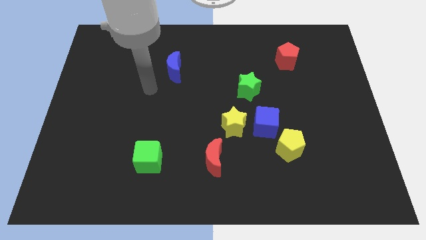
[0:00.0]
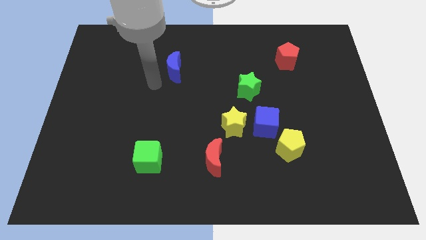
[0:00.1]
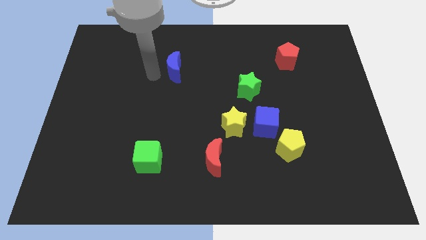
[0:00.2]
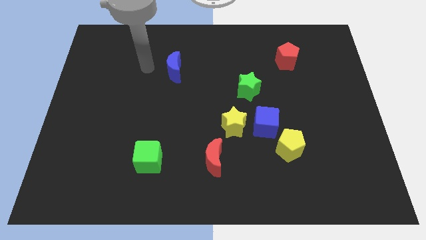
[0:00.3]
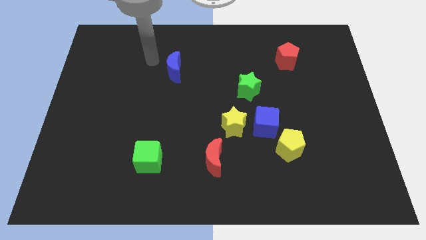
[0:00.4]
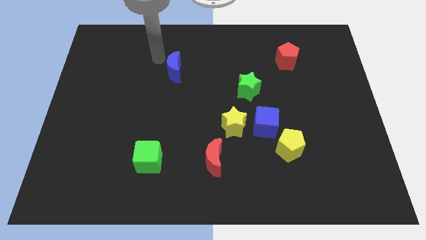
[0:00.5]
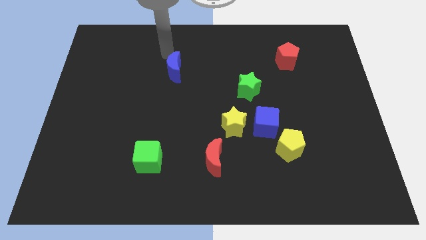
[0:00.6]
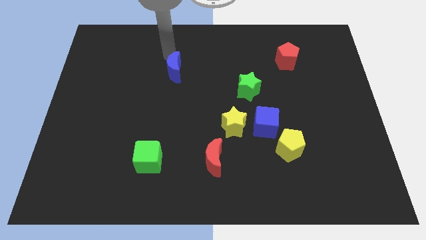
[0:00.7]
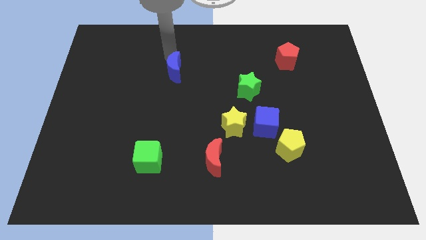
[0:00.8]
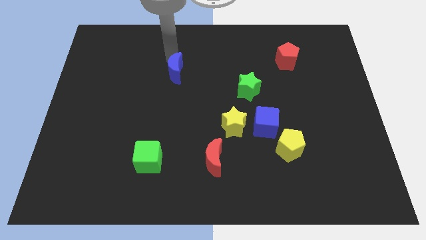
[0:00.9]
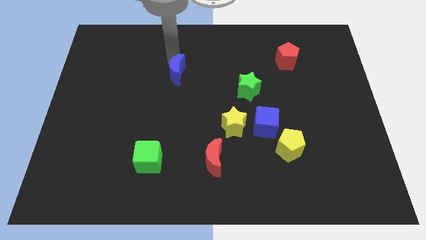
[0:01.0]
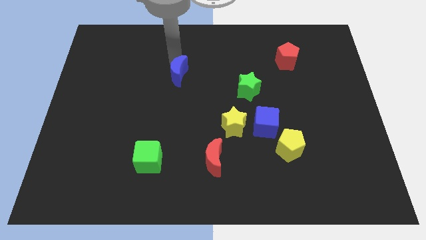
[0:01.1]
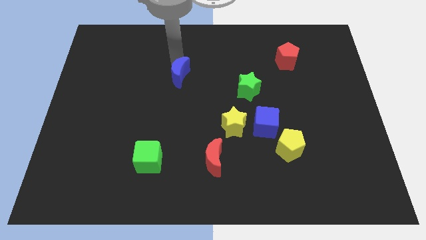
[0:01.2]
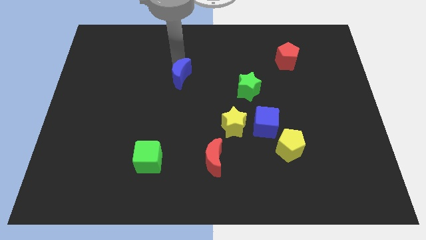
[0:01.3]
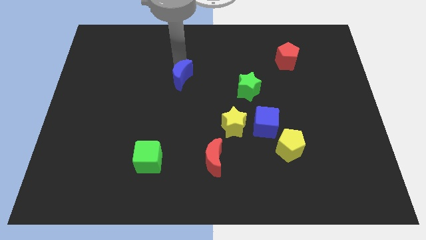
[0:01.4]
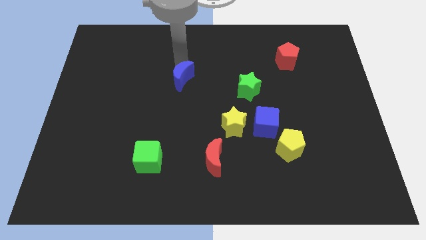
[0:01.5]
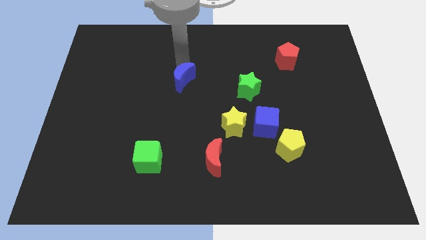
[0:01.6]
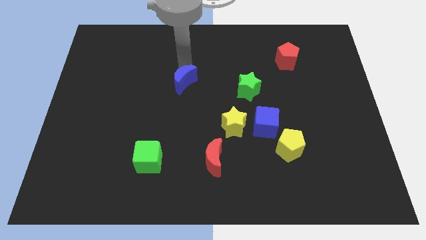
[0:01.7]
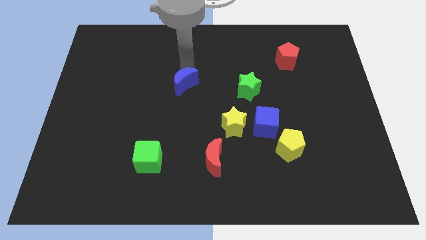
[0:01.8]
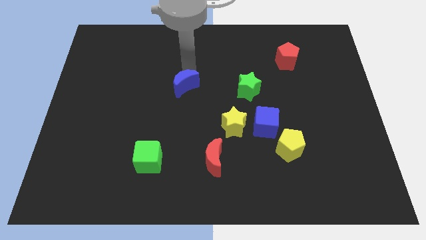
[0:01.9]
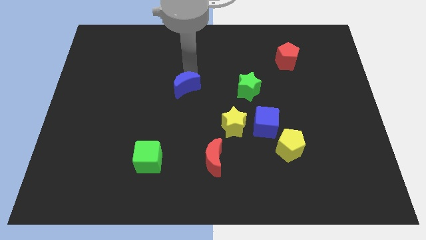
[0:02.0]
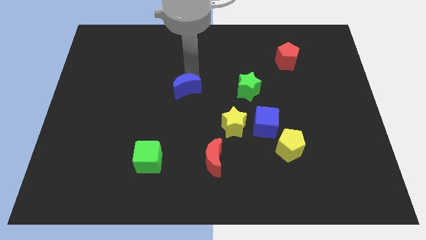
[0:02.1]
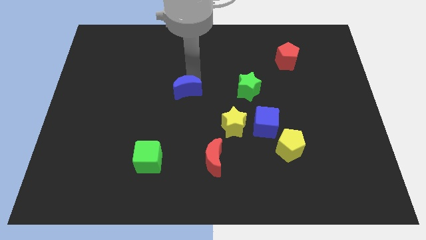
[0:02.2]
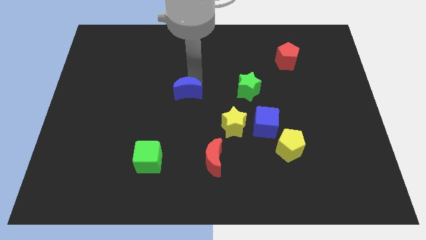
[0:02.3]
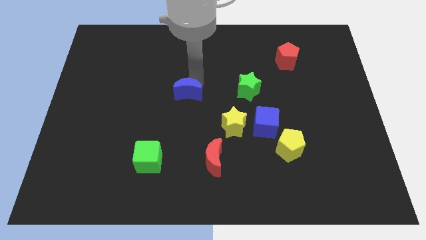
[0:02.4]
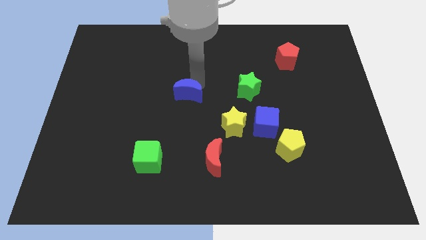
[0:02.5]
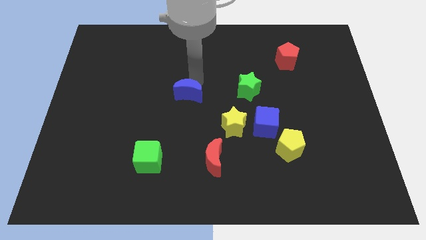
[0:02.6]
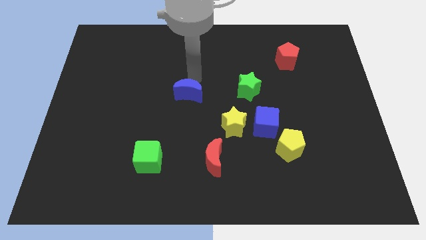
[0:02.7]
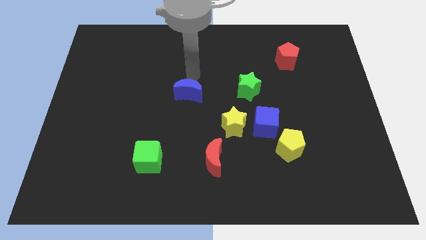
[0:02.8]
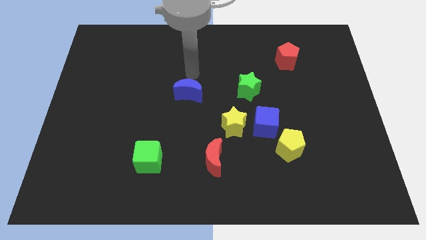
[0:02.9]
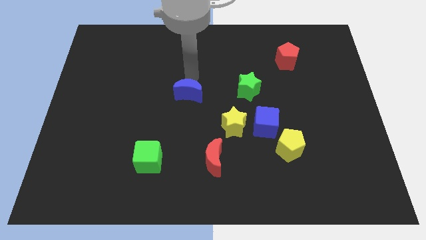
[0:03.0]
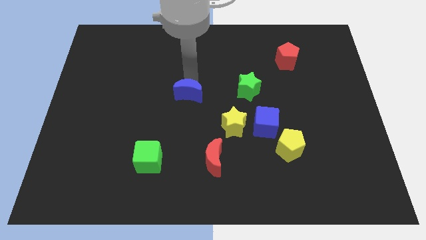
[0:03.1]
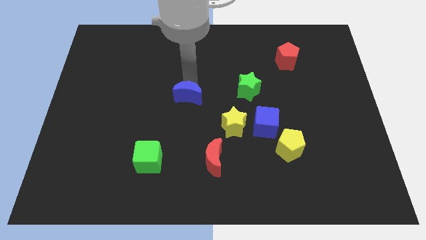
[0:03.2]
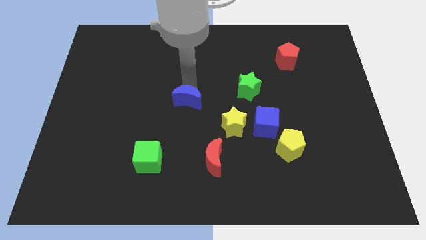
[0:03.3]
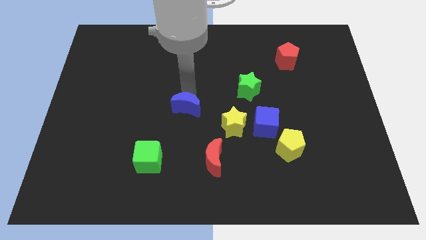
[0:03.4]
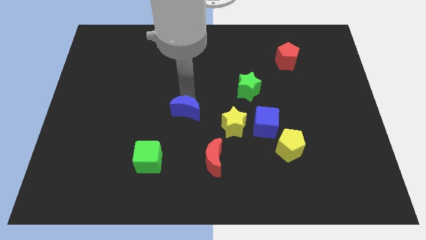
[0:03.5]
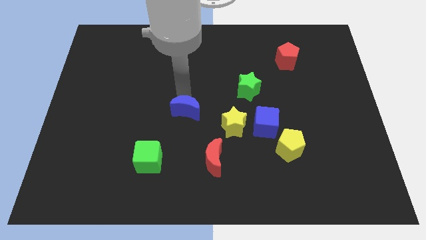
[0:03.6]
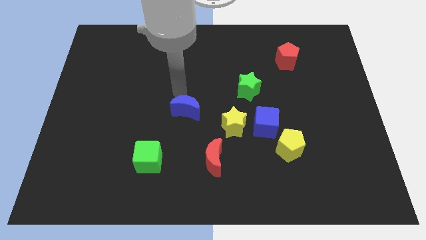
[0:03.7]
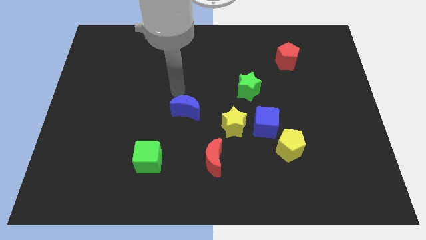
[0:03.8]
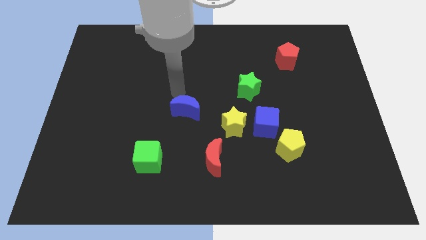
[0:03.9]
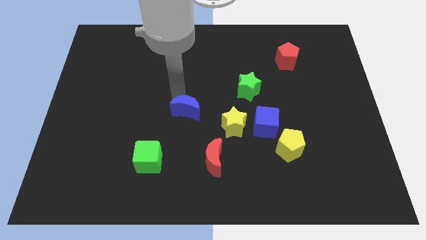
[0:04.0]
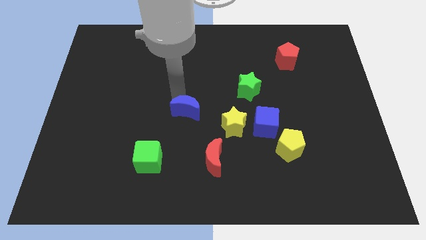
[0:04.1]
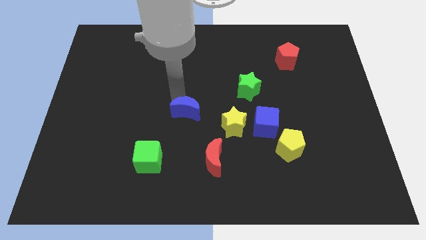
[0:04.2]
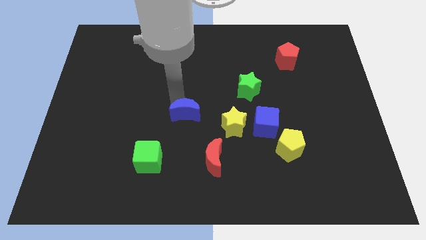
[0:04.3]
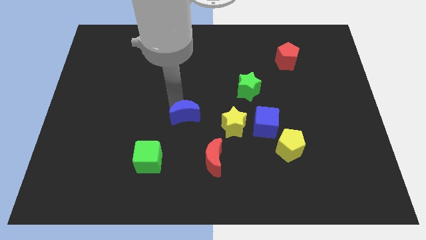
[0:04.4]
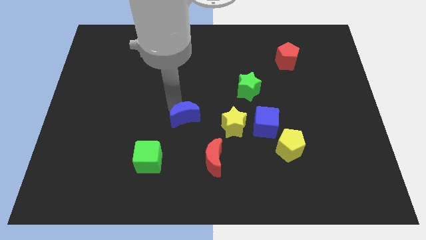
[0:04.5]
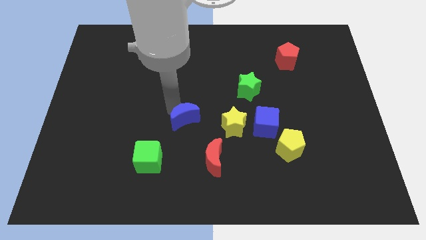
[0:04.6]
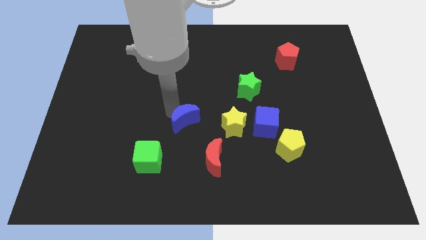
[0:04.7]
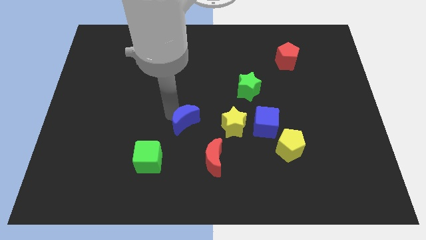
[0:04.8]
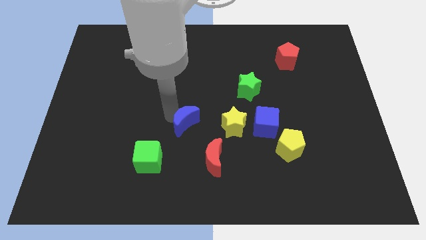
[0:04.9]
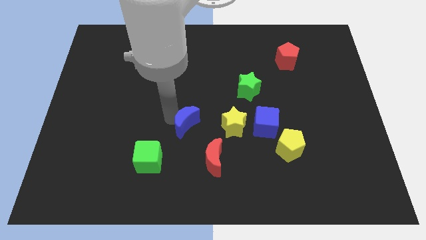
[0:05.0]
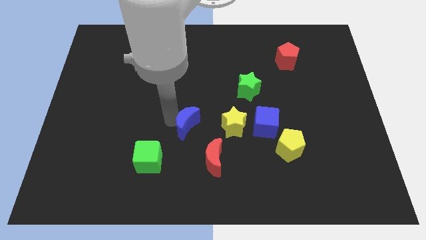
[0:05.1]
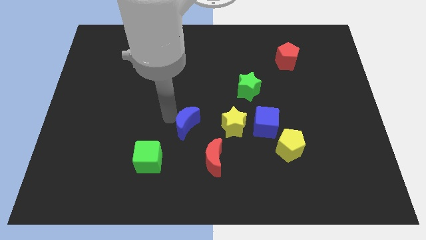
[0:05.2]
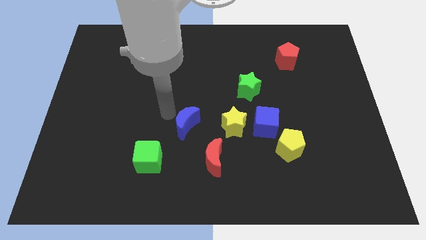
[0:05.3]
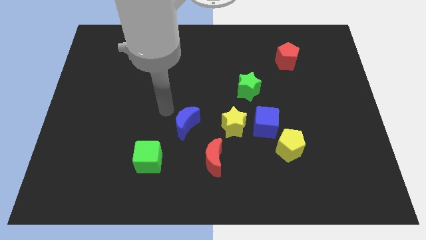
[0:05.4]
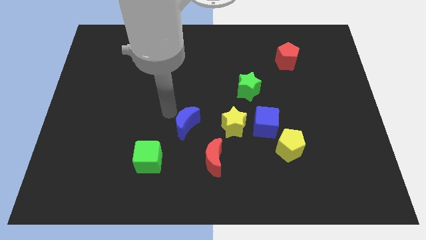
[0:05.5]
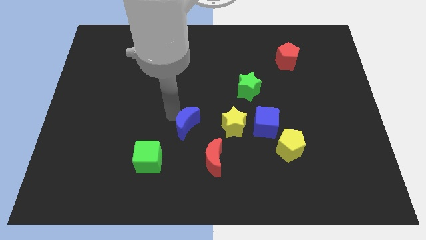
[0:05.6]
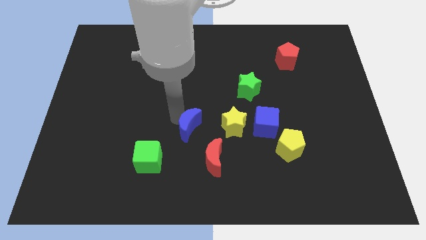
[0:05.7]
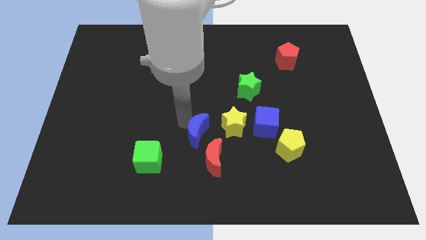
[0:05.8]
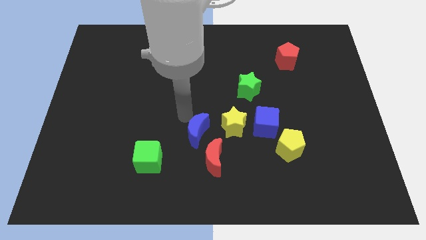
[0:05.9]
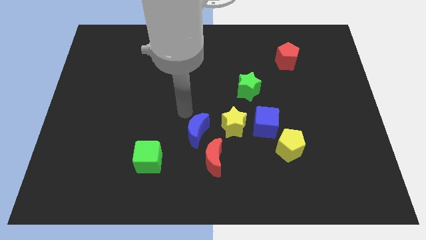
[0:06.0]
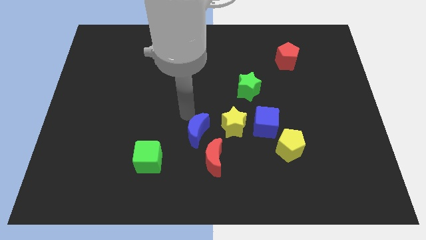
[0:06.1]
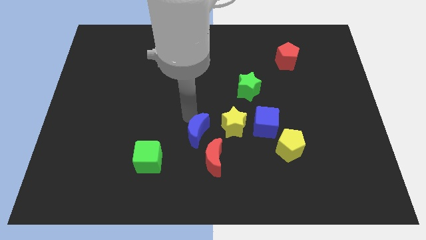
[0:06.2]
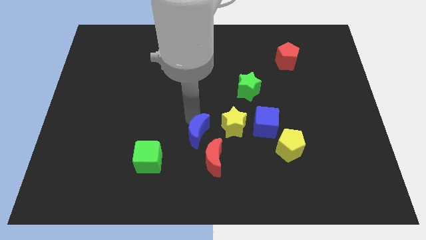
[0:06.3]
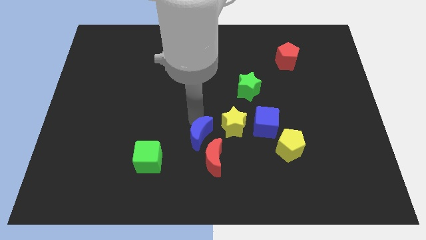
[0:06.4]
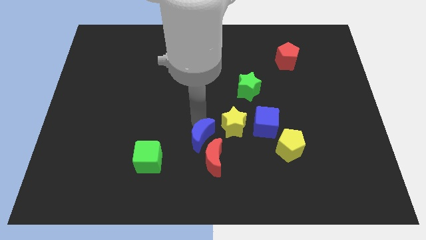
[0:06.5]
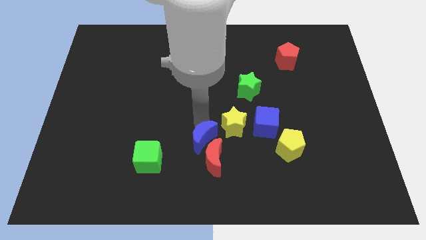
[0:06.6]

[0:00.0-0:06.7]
slide the blue moon next to the red moon
